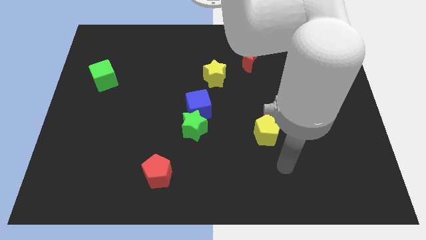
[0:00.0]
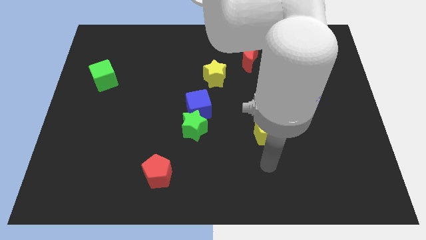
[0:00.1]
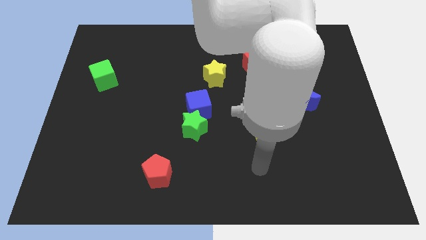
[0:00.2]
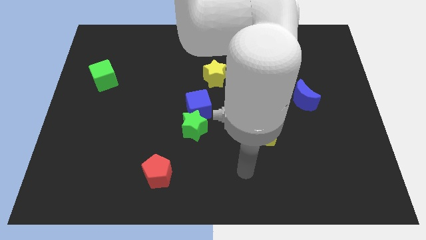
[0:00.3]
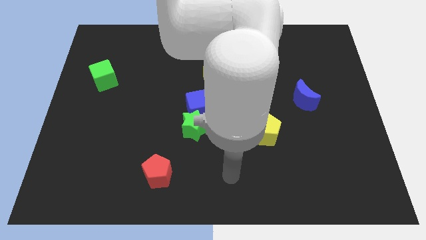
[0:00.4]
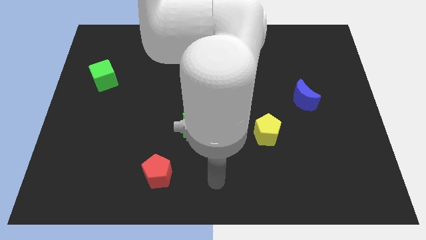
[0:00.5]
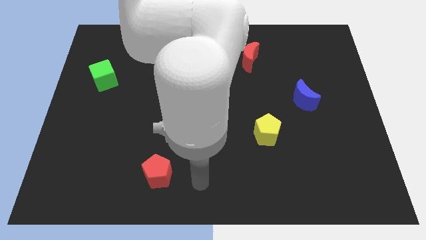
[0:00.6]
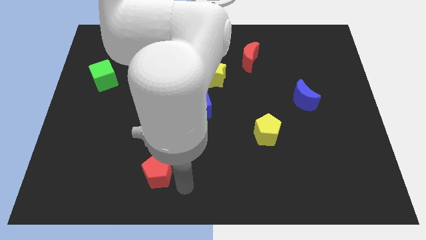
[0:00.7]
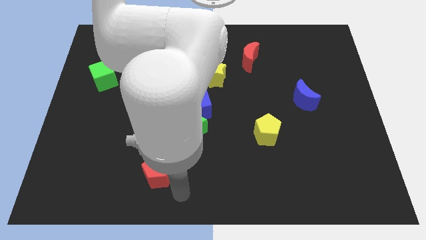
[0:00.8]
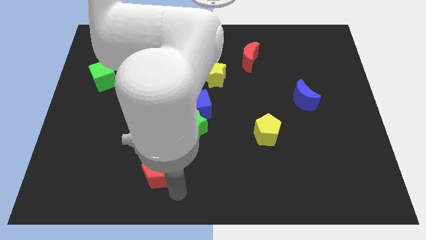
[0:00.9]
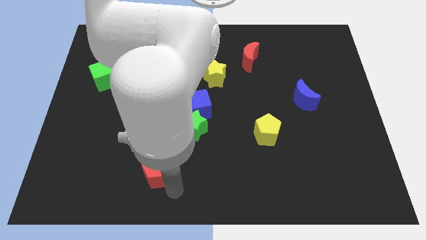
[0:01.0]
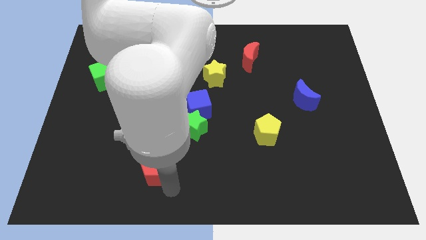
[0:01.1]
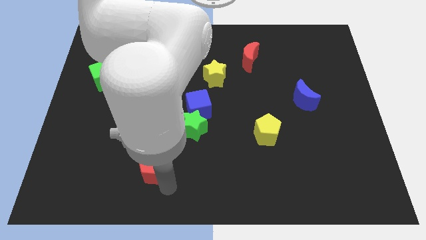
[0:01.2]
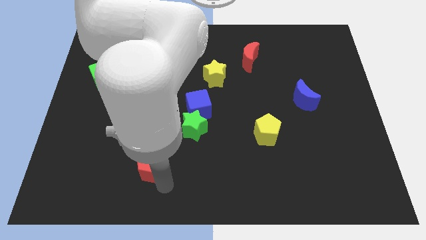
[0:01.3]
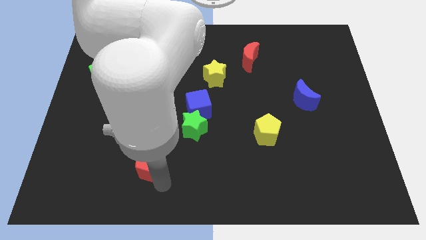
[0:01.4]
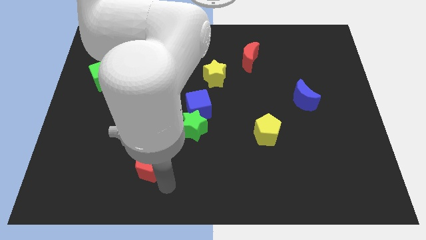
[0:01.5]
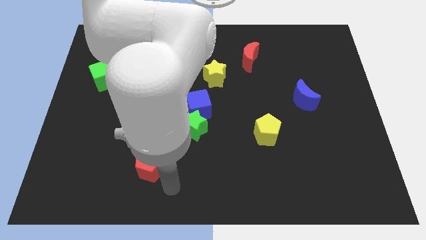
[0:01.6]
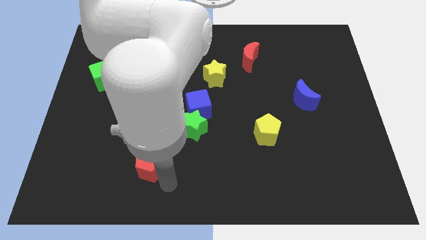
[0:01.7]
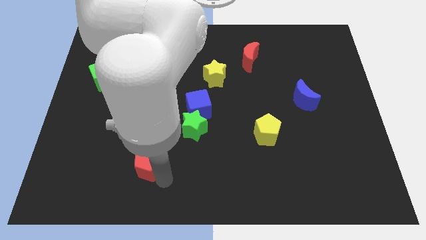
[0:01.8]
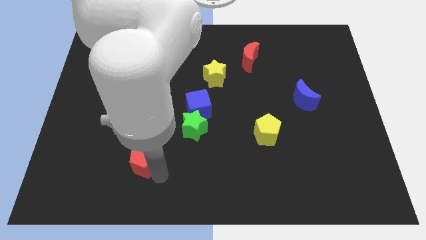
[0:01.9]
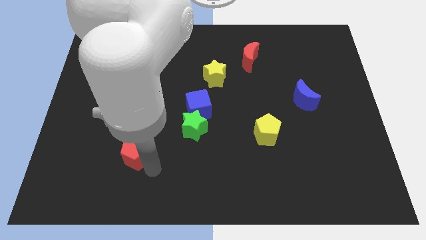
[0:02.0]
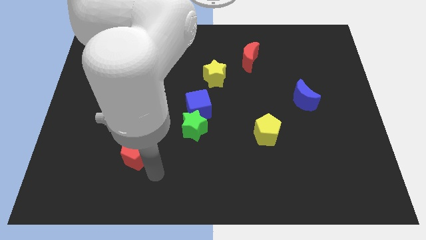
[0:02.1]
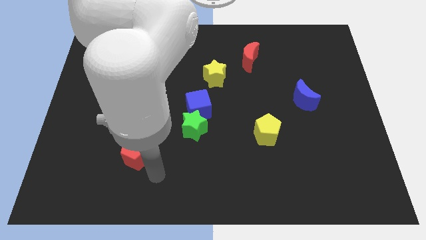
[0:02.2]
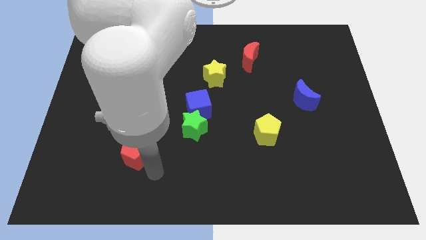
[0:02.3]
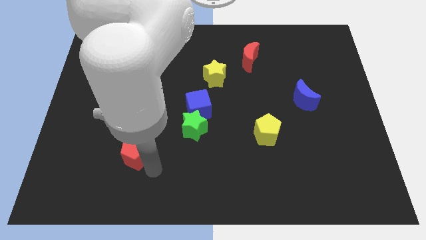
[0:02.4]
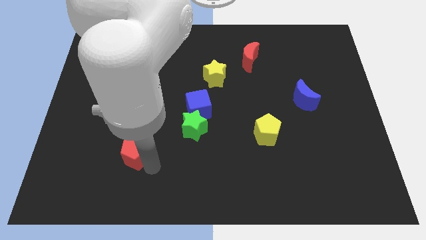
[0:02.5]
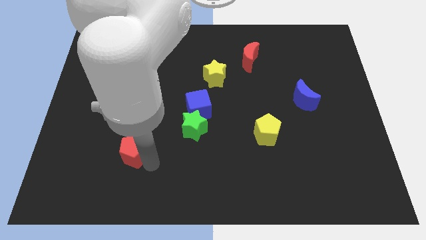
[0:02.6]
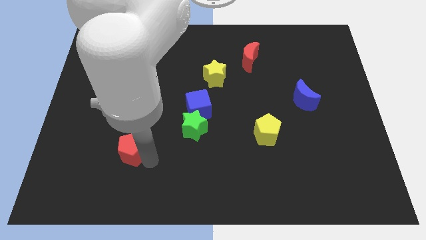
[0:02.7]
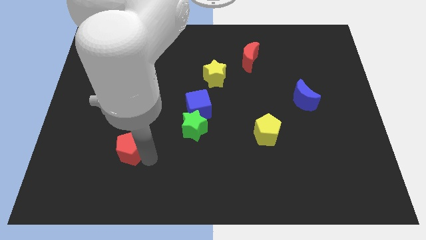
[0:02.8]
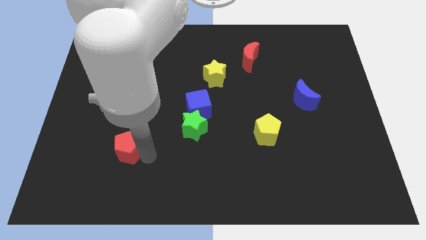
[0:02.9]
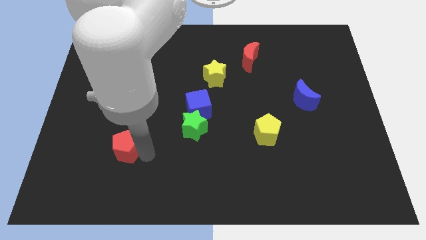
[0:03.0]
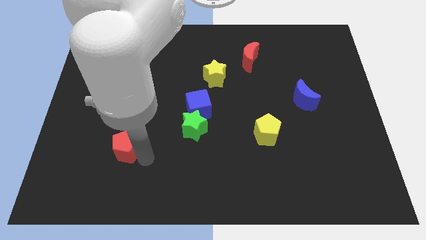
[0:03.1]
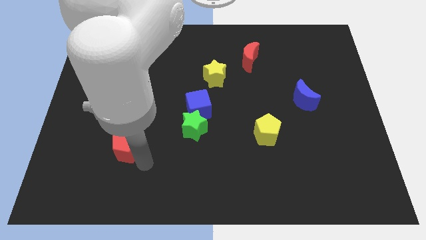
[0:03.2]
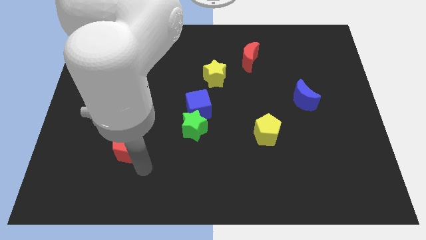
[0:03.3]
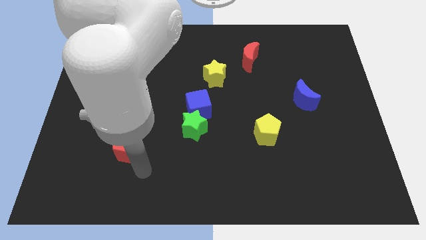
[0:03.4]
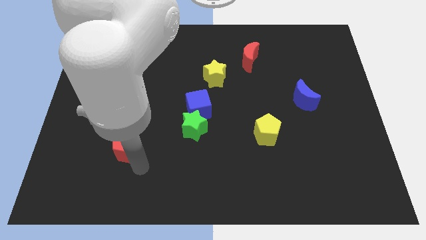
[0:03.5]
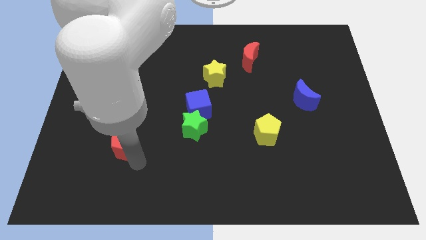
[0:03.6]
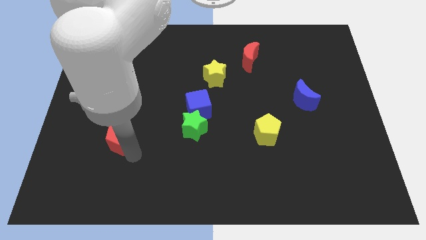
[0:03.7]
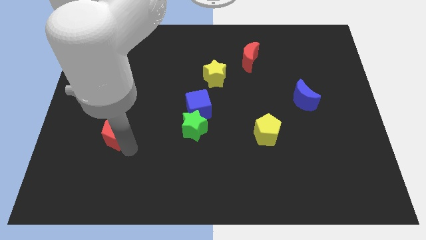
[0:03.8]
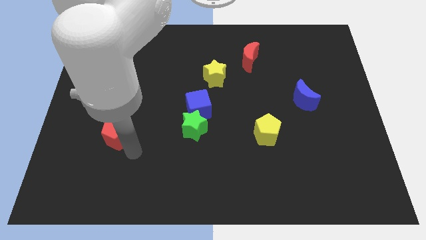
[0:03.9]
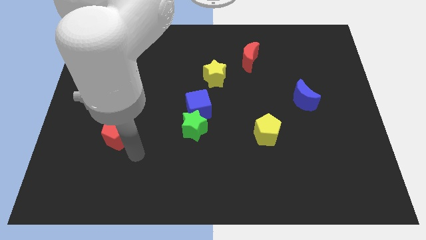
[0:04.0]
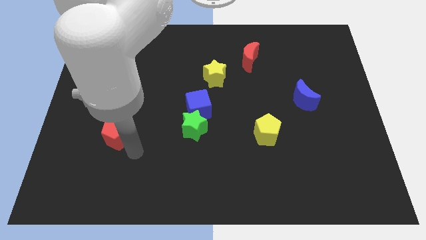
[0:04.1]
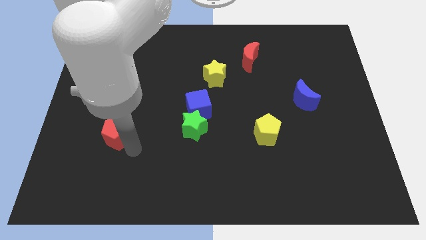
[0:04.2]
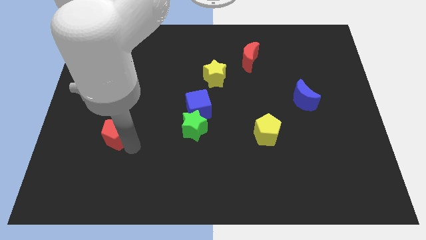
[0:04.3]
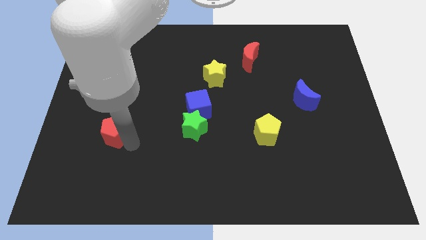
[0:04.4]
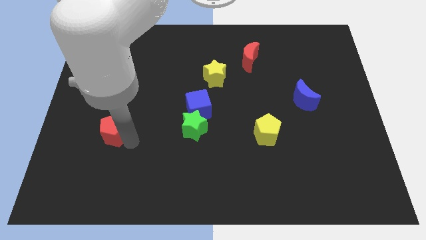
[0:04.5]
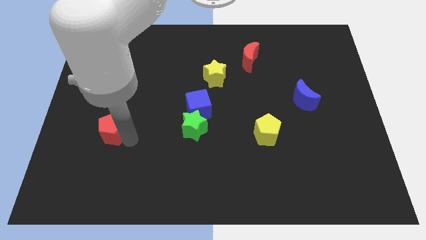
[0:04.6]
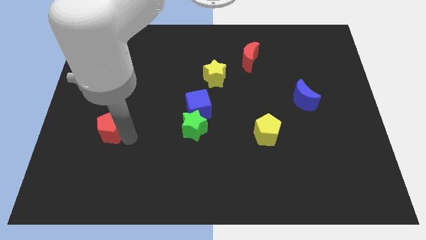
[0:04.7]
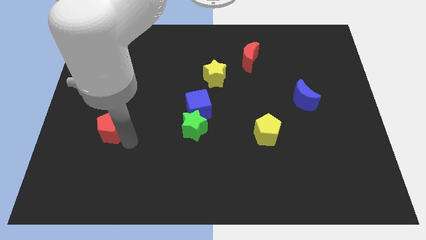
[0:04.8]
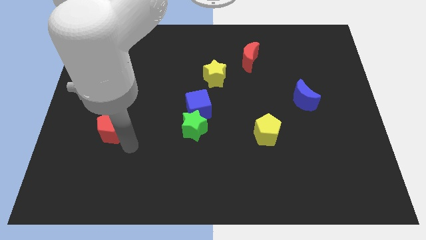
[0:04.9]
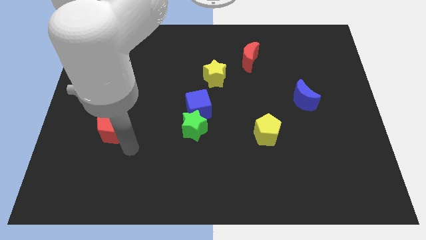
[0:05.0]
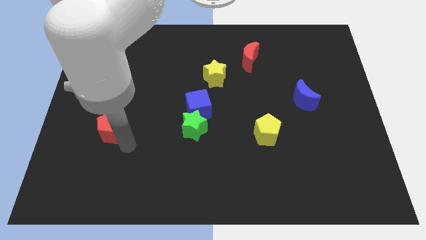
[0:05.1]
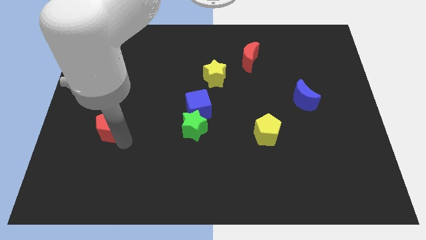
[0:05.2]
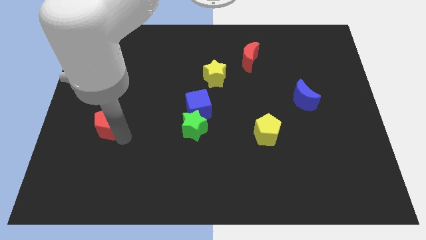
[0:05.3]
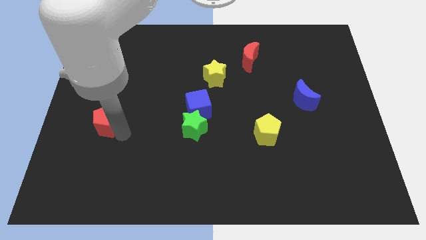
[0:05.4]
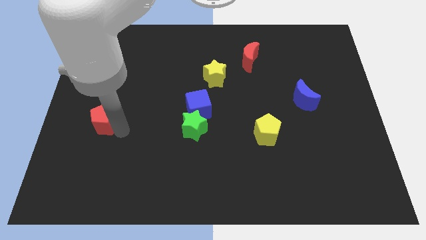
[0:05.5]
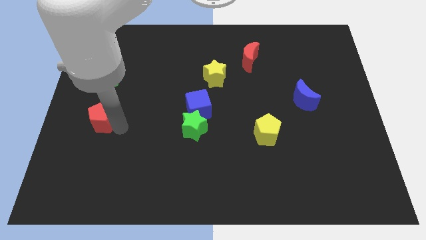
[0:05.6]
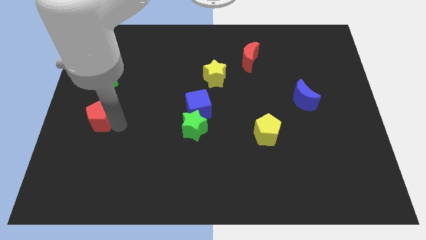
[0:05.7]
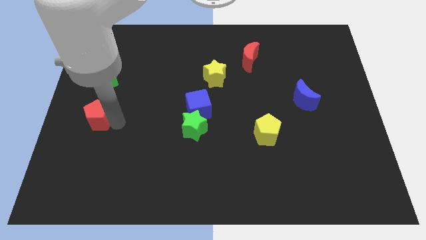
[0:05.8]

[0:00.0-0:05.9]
move the red pentagon to the center left

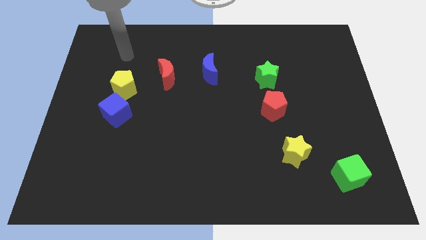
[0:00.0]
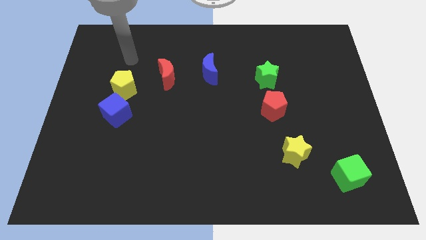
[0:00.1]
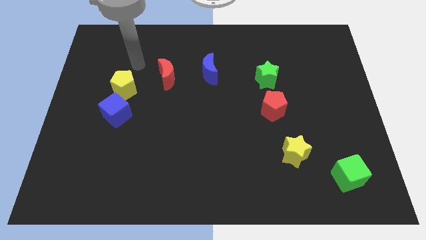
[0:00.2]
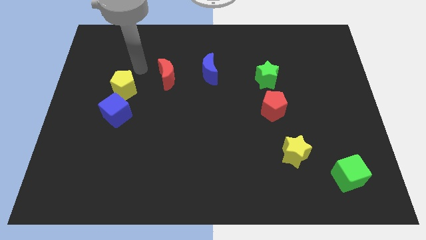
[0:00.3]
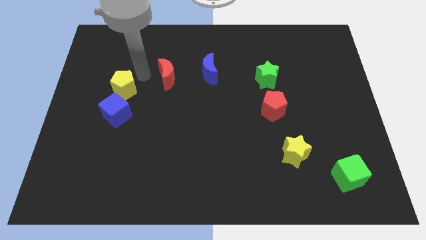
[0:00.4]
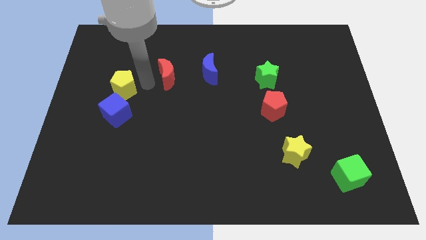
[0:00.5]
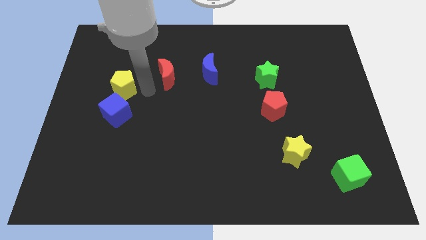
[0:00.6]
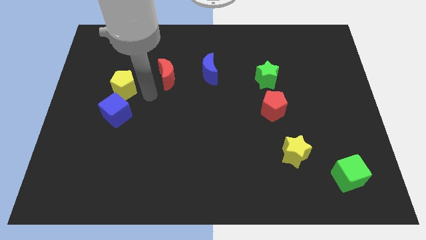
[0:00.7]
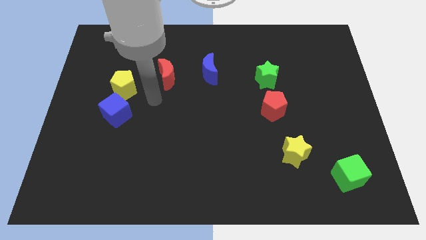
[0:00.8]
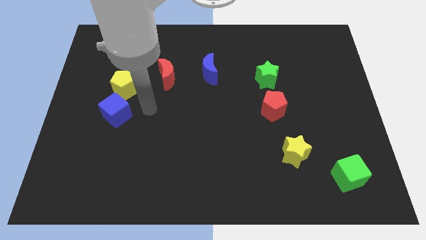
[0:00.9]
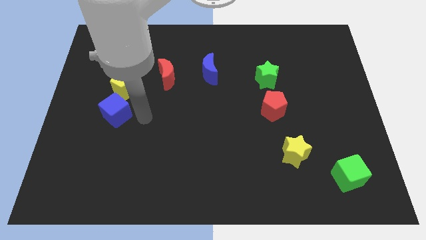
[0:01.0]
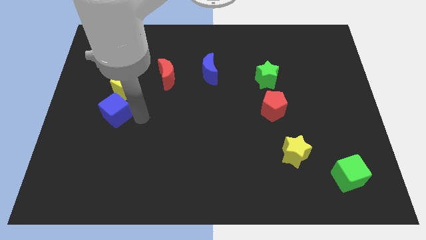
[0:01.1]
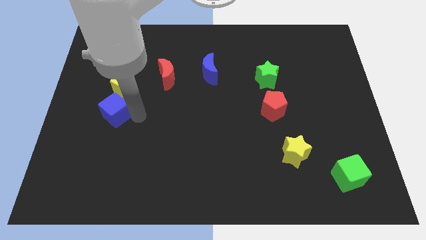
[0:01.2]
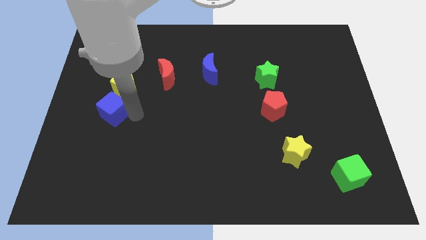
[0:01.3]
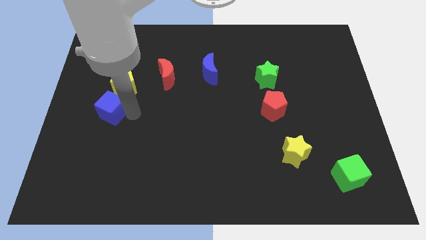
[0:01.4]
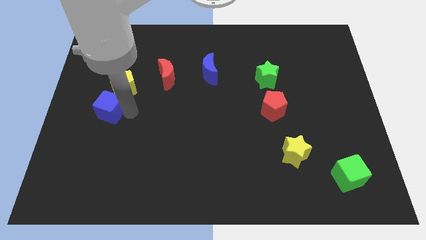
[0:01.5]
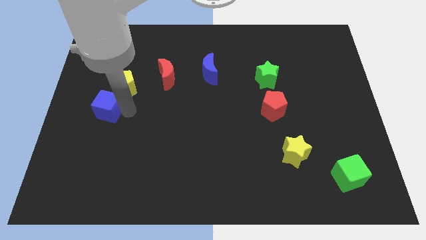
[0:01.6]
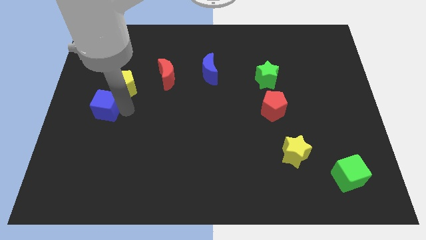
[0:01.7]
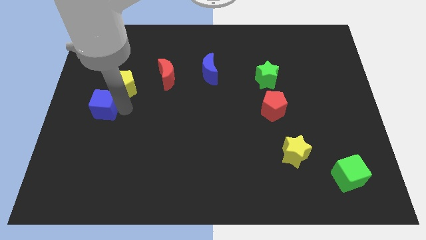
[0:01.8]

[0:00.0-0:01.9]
move the blue cube to the left side of the board
